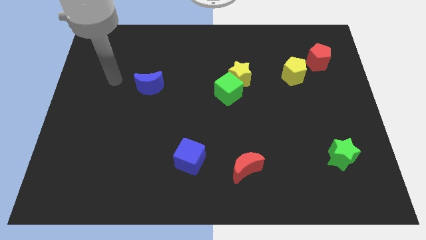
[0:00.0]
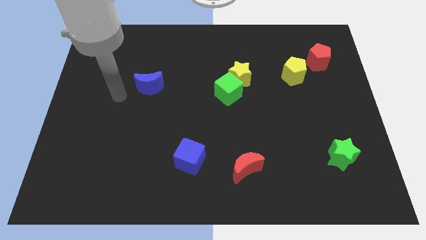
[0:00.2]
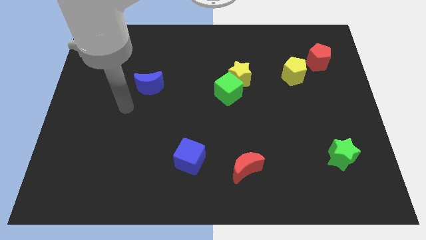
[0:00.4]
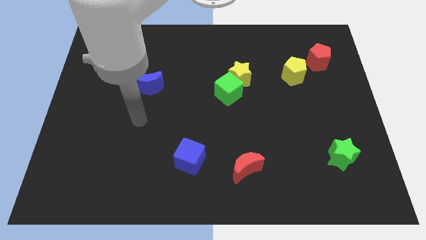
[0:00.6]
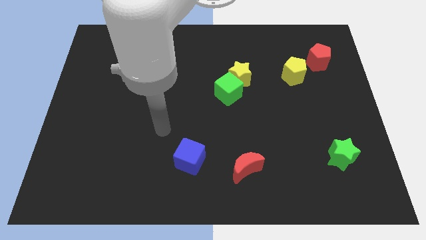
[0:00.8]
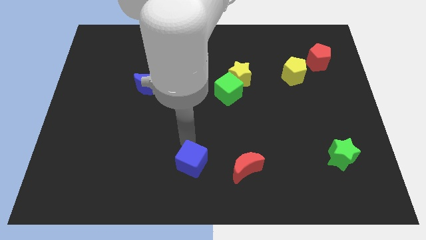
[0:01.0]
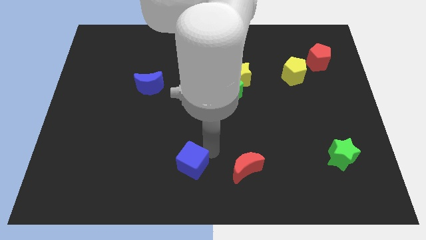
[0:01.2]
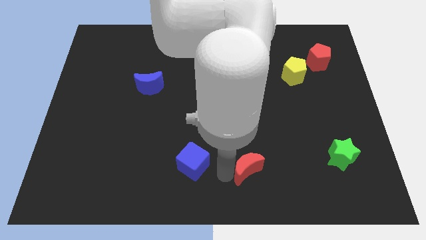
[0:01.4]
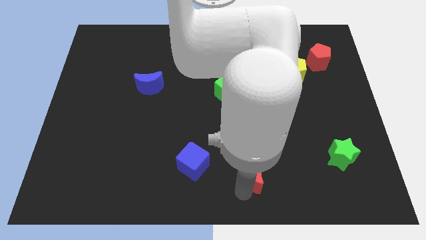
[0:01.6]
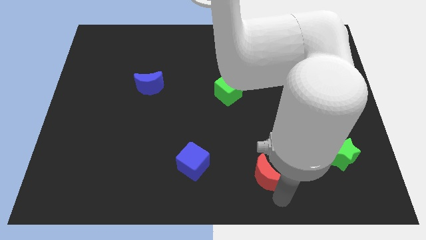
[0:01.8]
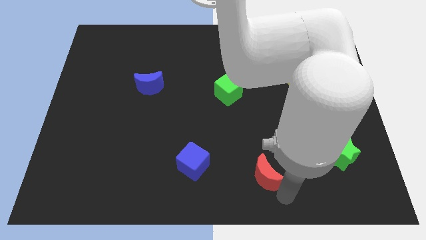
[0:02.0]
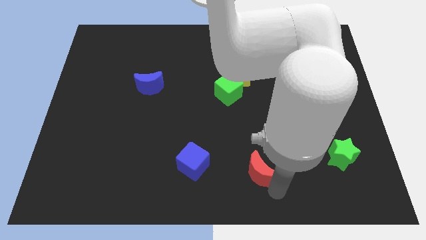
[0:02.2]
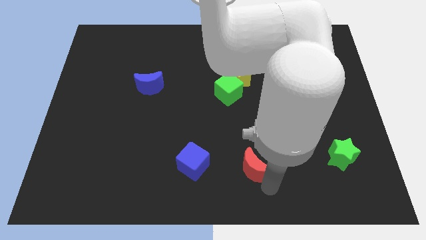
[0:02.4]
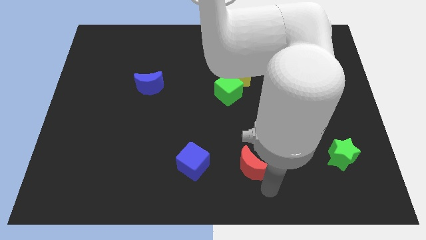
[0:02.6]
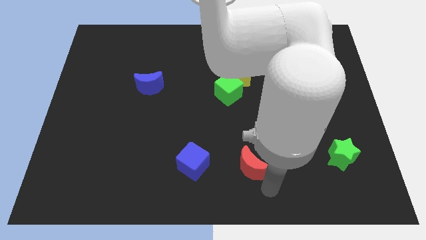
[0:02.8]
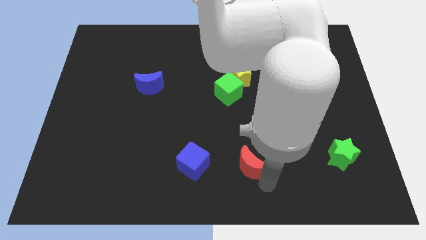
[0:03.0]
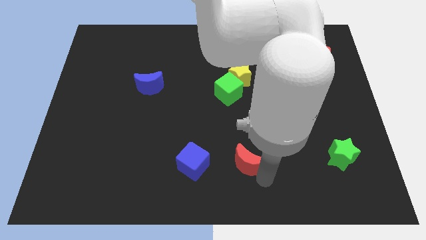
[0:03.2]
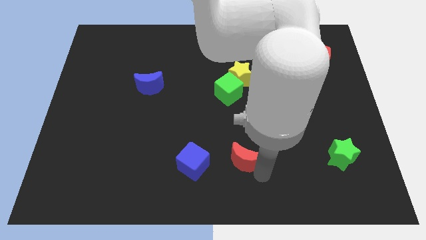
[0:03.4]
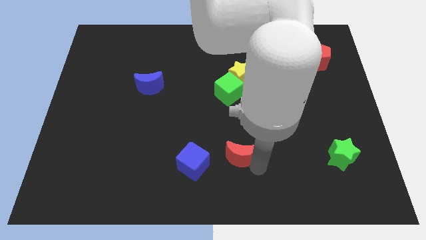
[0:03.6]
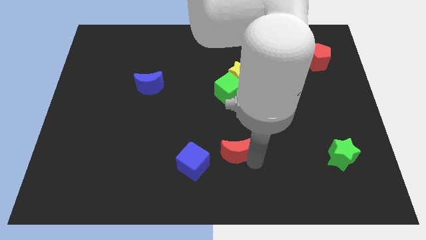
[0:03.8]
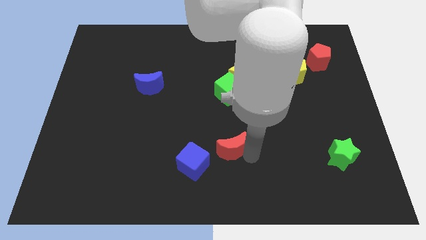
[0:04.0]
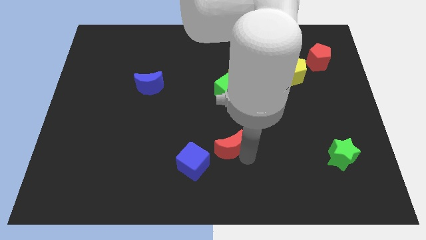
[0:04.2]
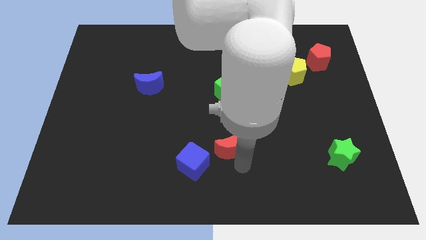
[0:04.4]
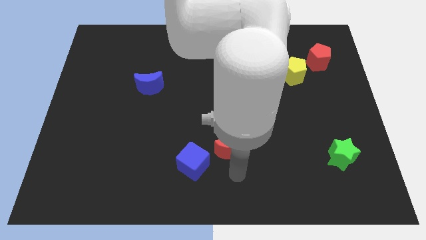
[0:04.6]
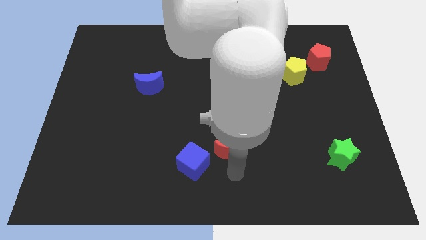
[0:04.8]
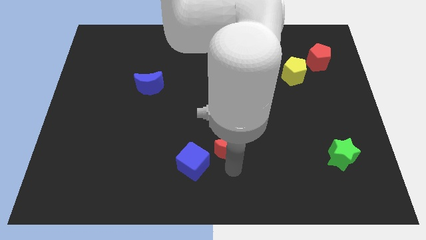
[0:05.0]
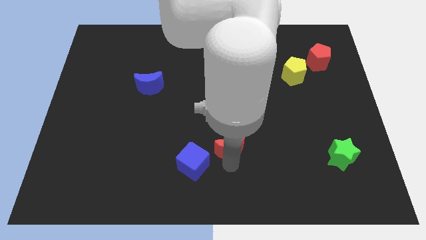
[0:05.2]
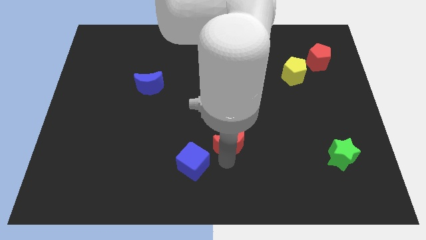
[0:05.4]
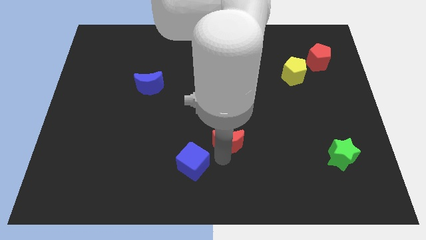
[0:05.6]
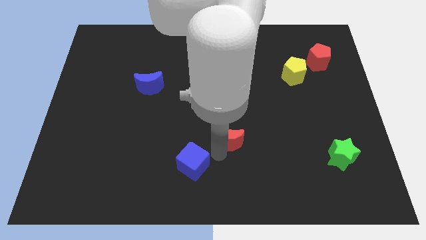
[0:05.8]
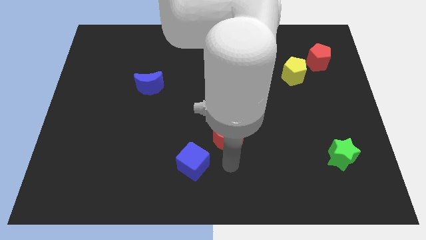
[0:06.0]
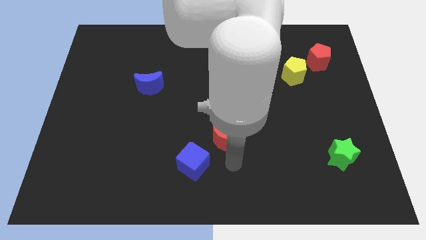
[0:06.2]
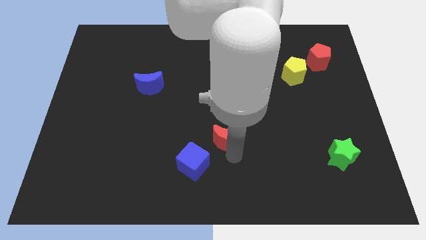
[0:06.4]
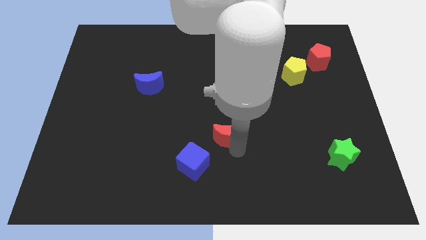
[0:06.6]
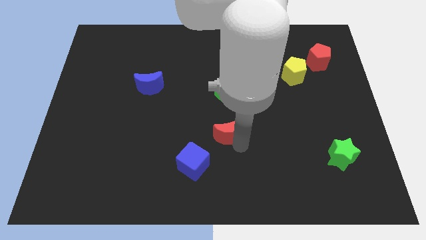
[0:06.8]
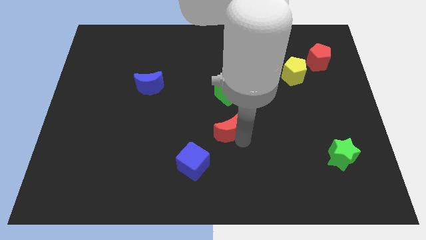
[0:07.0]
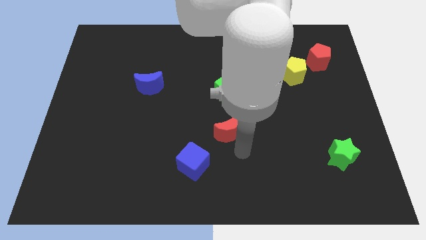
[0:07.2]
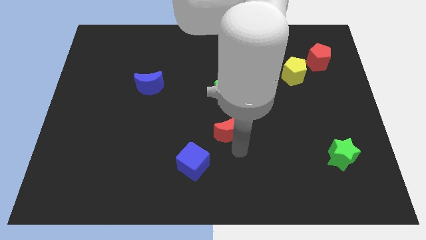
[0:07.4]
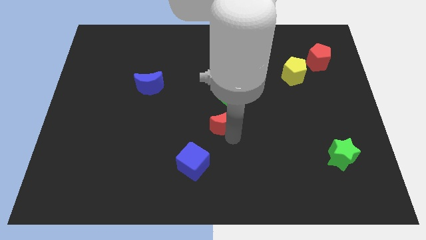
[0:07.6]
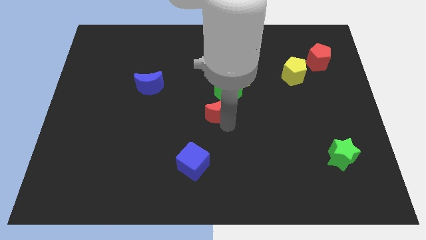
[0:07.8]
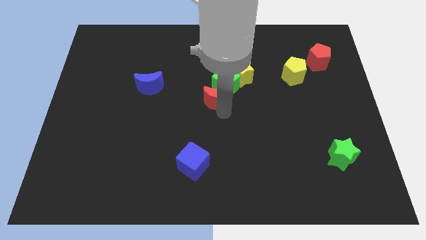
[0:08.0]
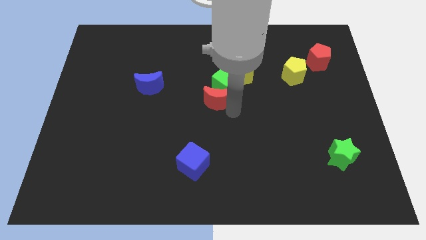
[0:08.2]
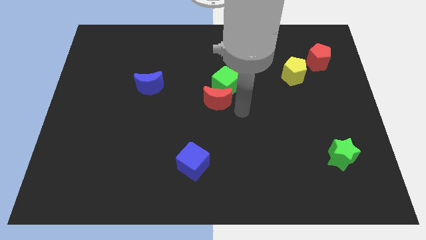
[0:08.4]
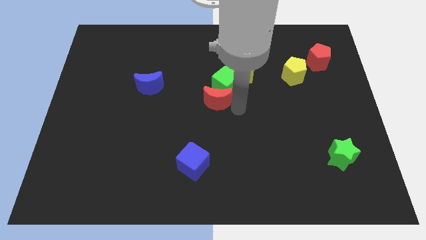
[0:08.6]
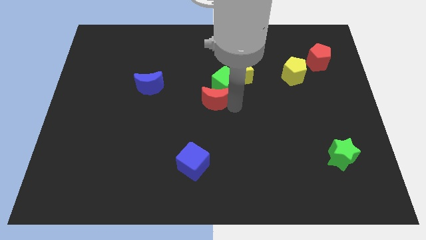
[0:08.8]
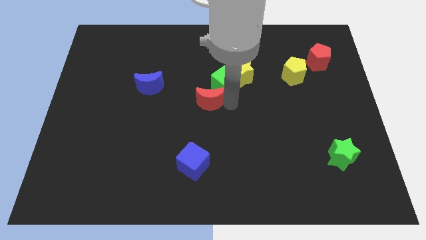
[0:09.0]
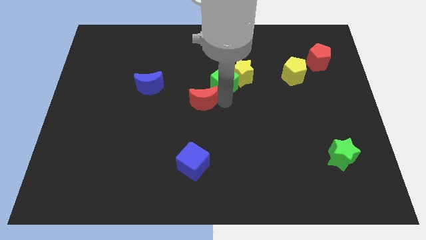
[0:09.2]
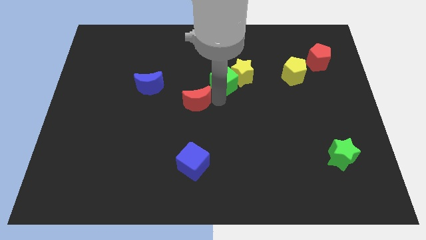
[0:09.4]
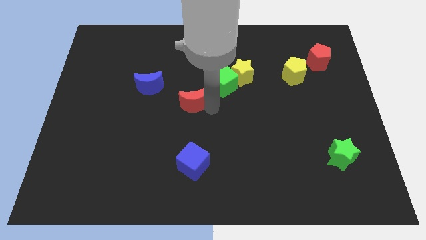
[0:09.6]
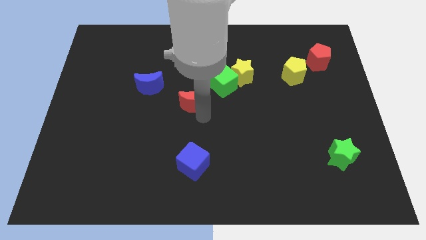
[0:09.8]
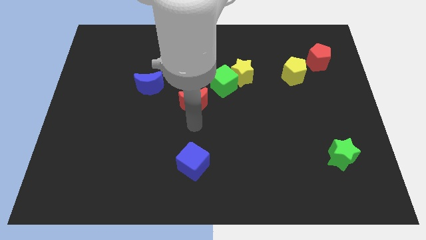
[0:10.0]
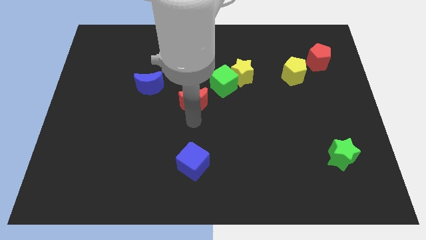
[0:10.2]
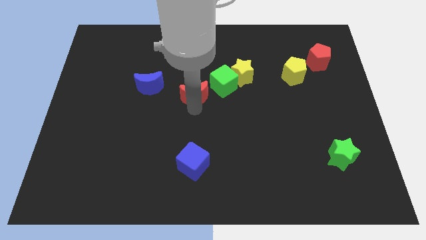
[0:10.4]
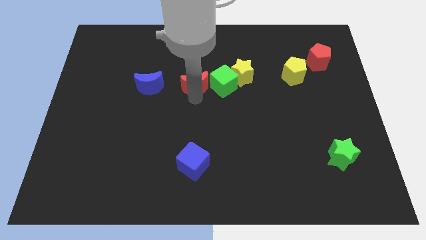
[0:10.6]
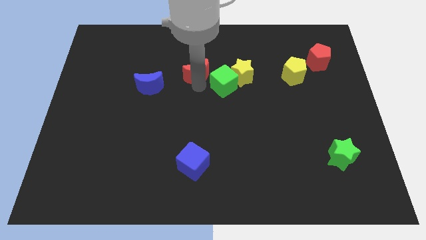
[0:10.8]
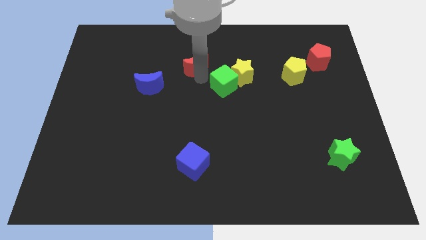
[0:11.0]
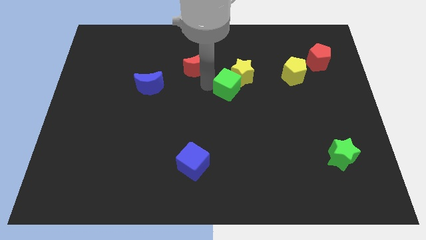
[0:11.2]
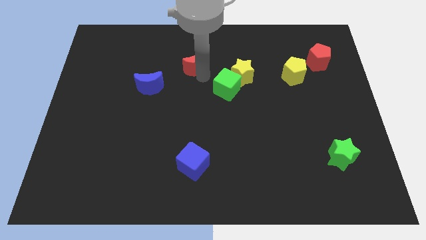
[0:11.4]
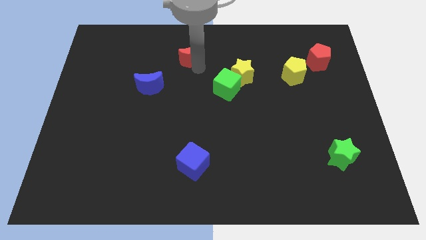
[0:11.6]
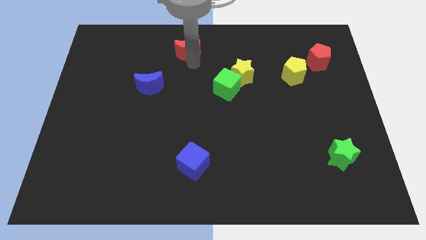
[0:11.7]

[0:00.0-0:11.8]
move the red moon to the top side
